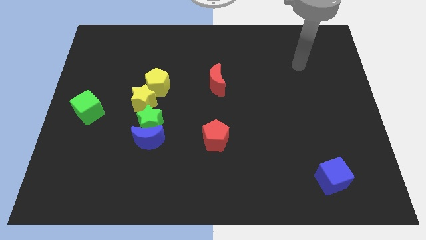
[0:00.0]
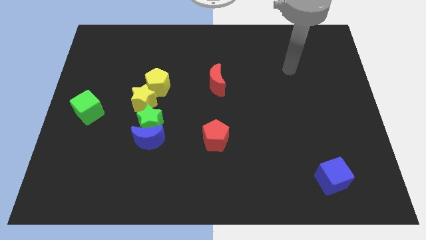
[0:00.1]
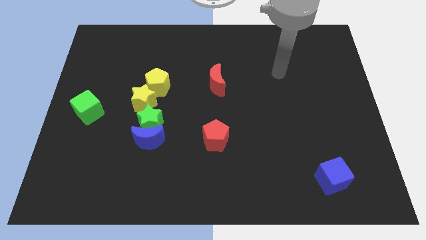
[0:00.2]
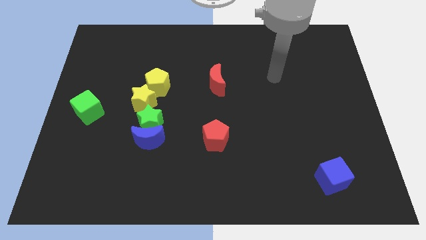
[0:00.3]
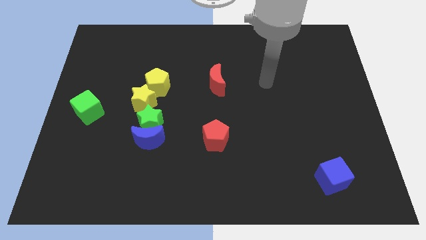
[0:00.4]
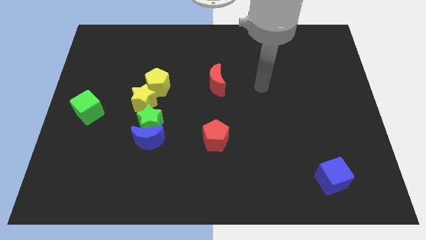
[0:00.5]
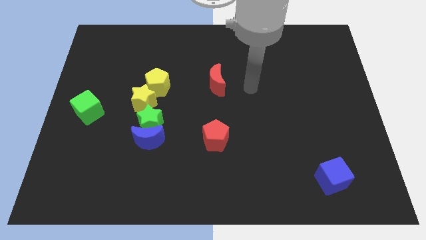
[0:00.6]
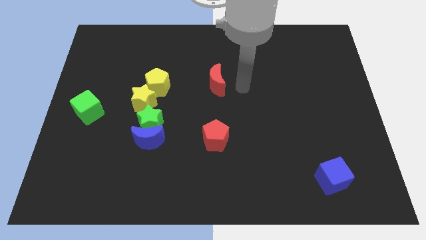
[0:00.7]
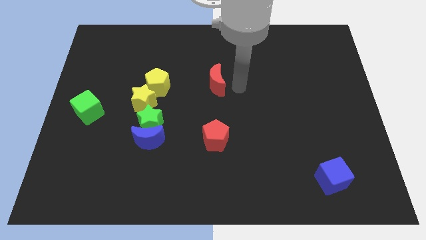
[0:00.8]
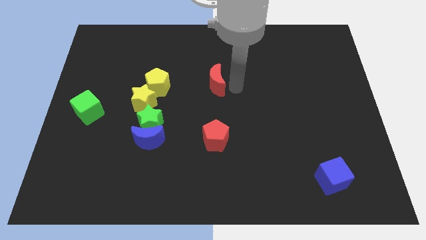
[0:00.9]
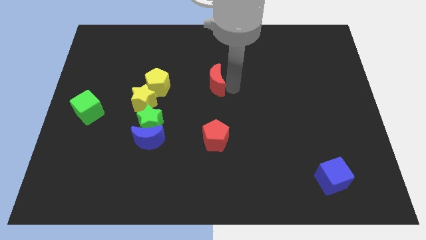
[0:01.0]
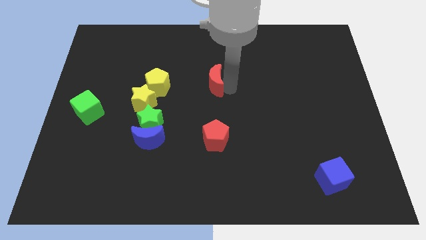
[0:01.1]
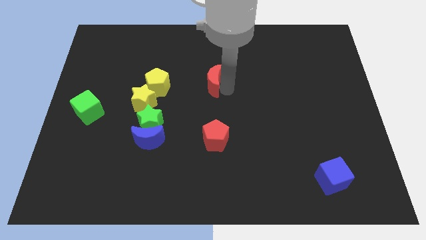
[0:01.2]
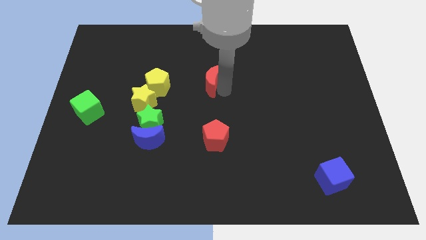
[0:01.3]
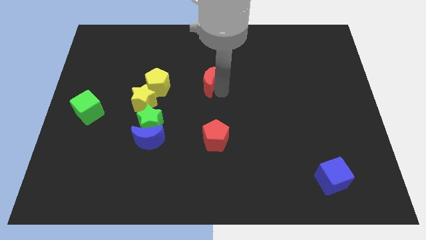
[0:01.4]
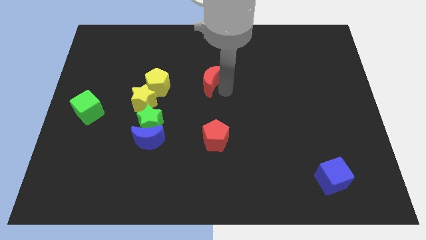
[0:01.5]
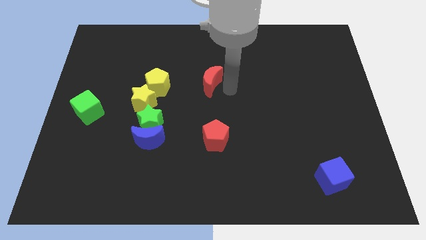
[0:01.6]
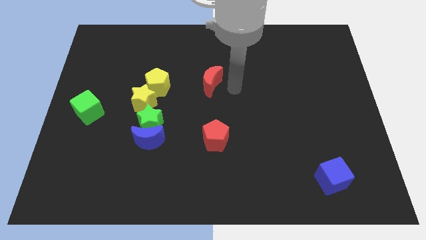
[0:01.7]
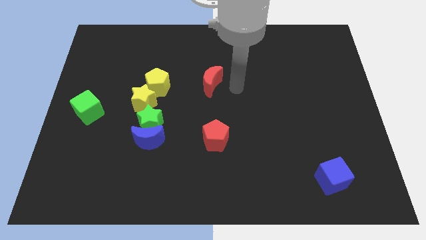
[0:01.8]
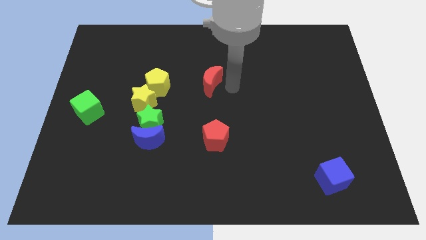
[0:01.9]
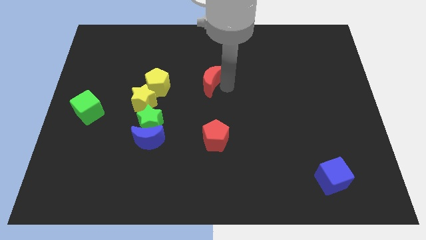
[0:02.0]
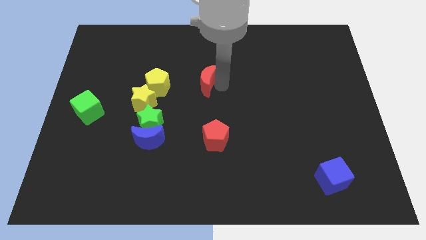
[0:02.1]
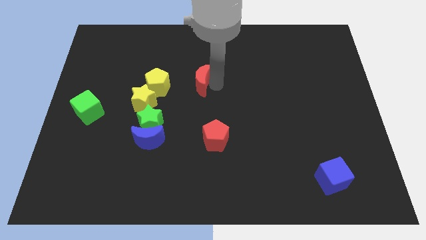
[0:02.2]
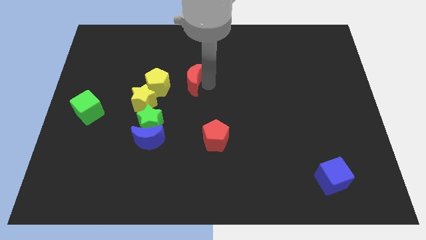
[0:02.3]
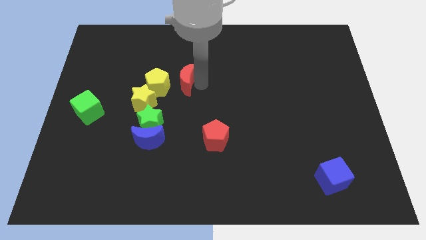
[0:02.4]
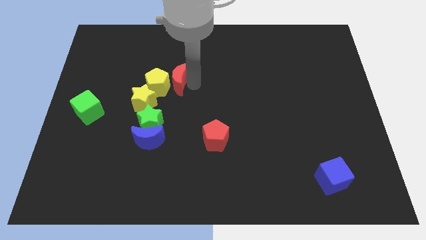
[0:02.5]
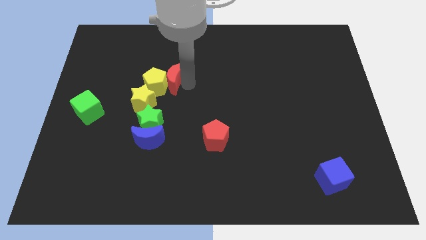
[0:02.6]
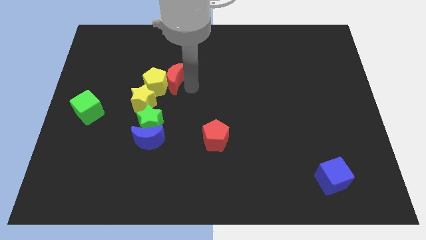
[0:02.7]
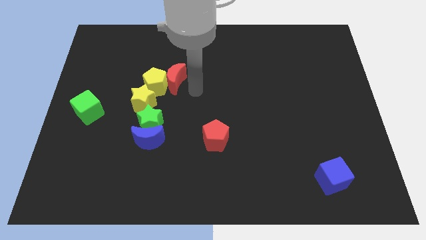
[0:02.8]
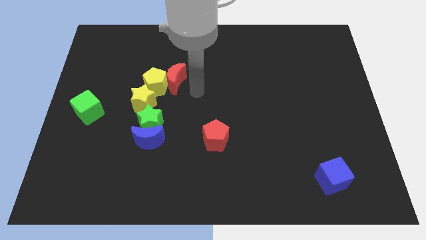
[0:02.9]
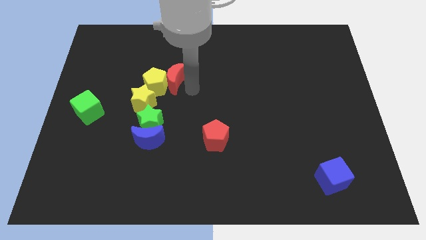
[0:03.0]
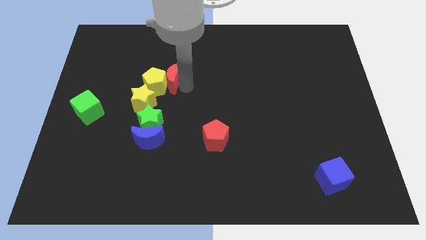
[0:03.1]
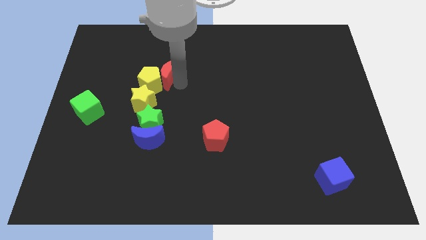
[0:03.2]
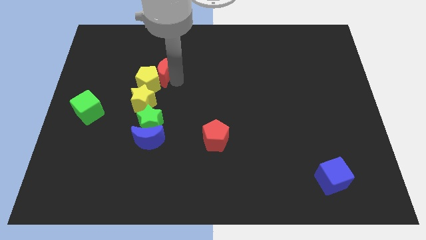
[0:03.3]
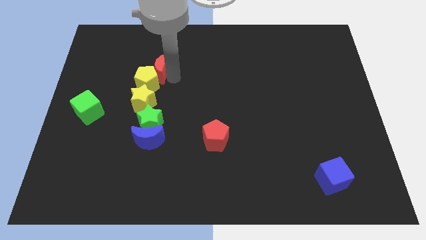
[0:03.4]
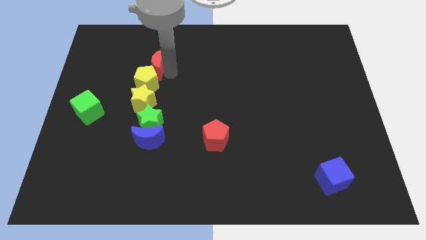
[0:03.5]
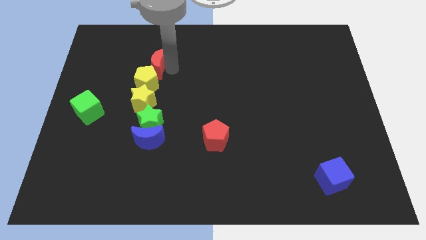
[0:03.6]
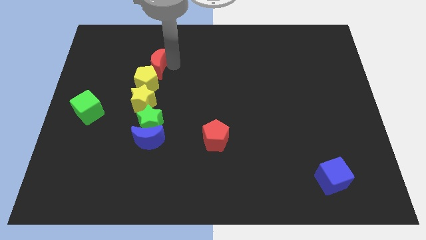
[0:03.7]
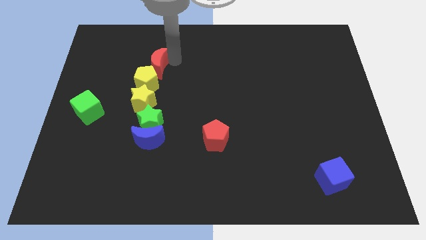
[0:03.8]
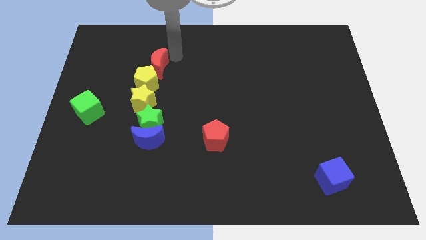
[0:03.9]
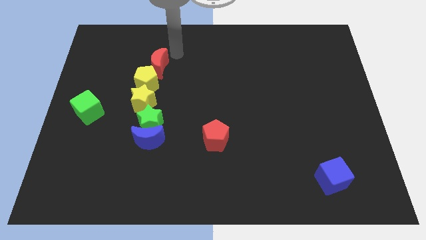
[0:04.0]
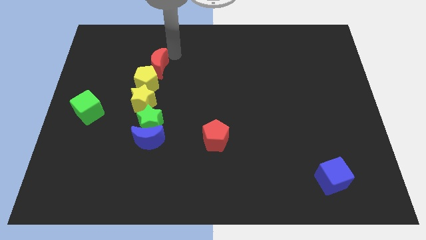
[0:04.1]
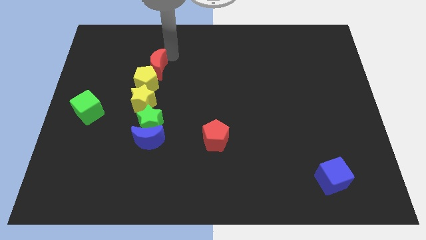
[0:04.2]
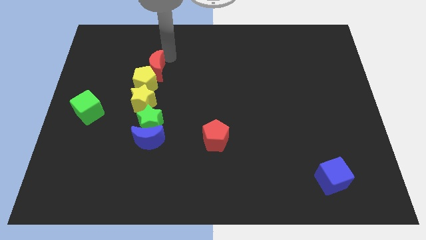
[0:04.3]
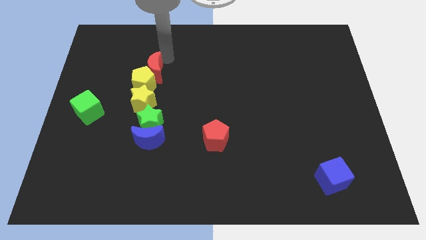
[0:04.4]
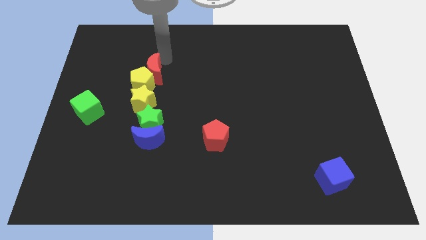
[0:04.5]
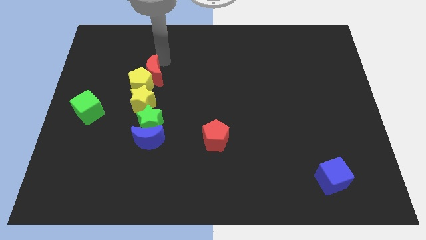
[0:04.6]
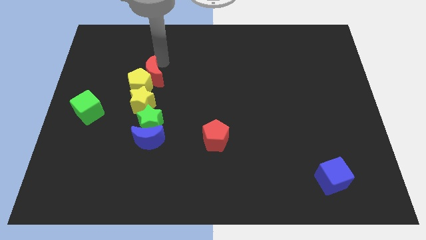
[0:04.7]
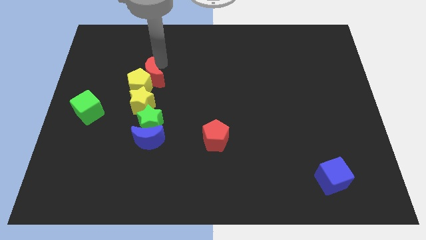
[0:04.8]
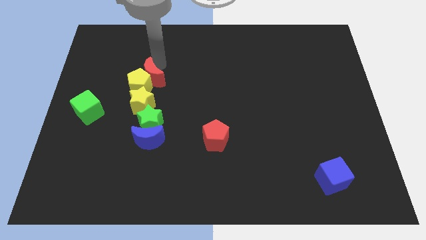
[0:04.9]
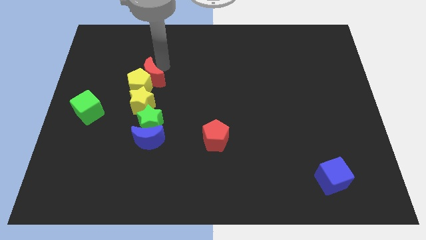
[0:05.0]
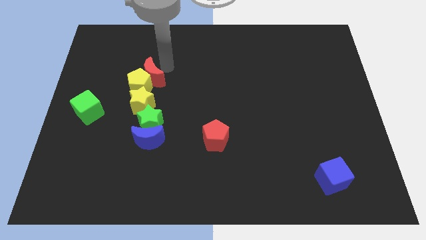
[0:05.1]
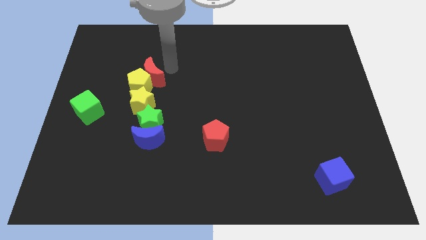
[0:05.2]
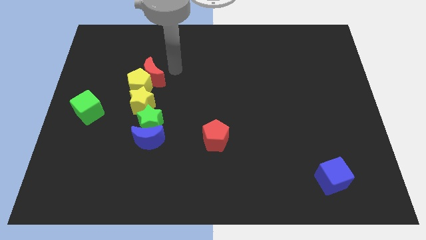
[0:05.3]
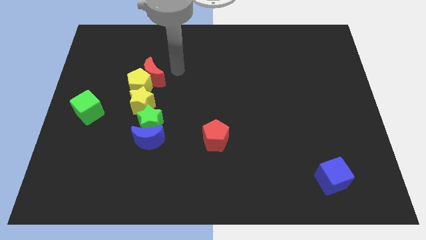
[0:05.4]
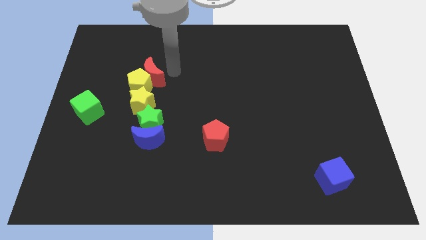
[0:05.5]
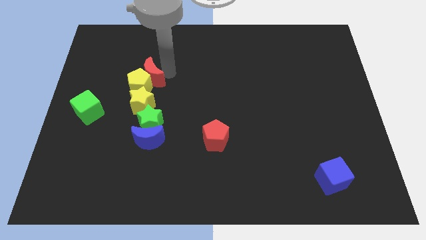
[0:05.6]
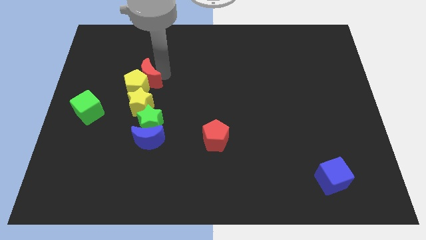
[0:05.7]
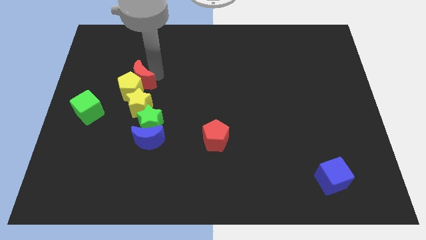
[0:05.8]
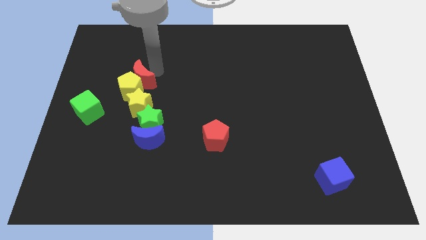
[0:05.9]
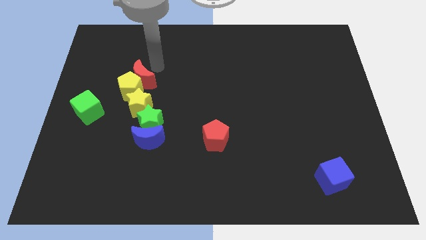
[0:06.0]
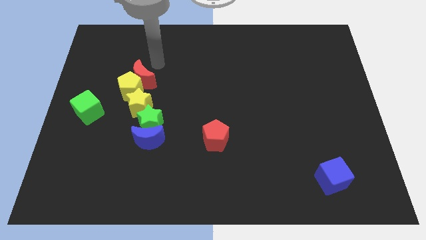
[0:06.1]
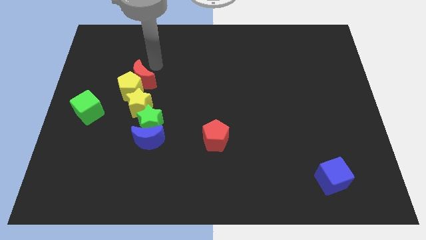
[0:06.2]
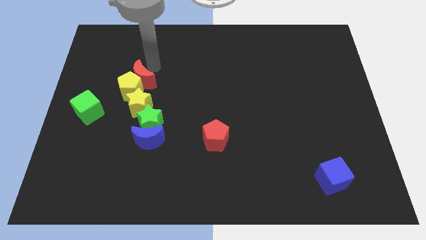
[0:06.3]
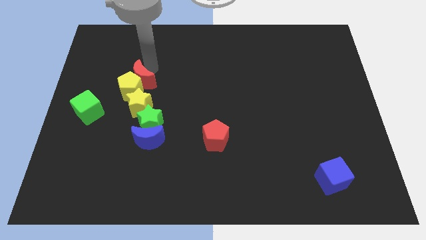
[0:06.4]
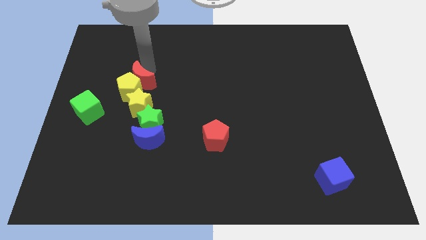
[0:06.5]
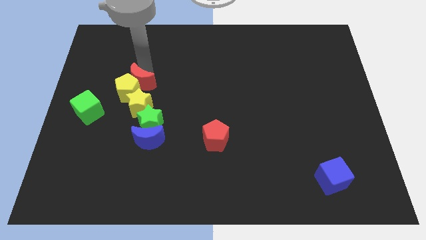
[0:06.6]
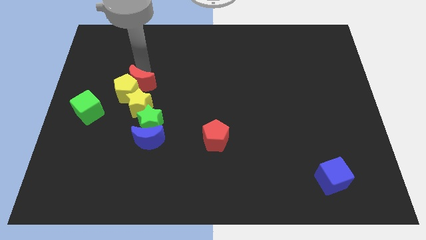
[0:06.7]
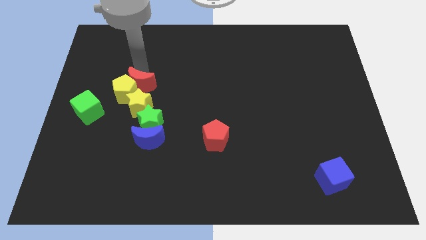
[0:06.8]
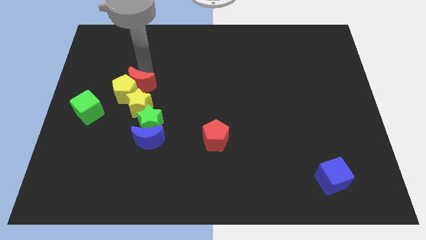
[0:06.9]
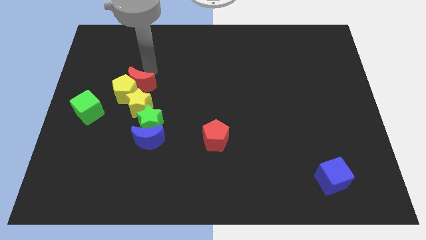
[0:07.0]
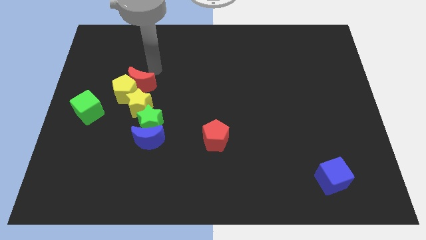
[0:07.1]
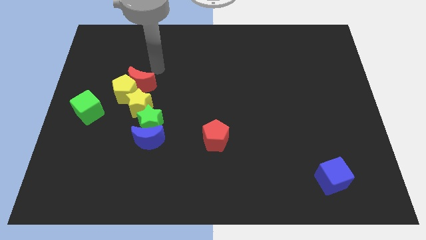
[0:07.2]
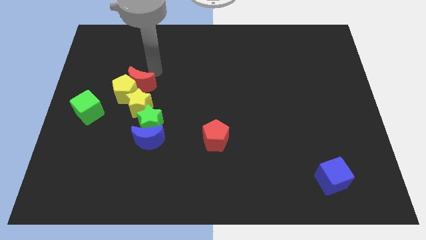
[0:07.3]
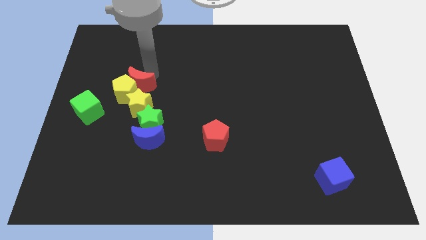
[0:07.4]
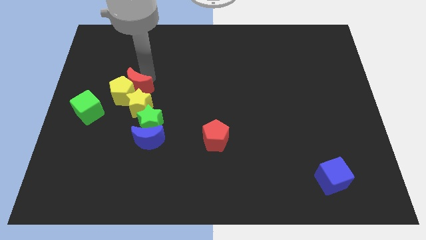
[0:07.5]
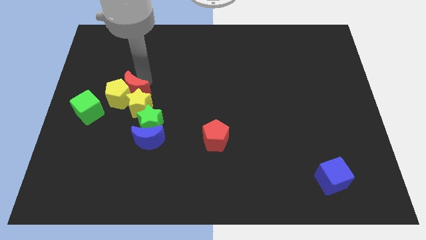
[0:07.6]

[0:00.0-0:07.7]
push the red moon to the top left side of the green star
